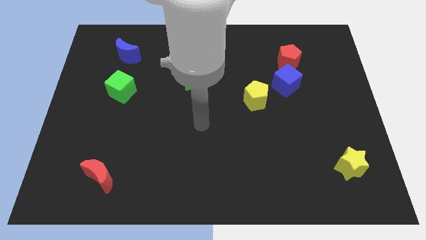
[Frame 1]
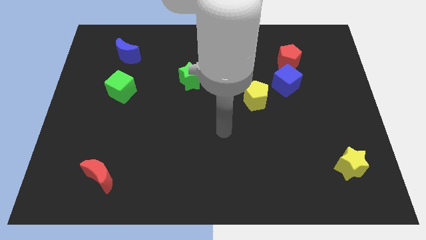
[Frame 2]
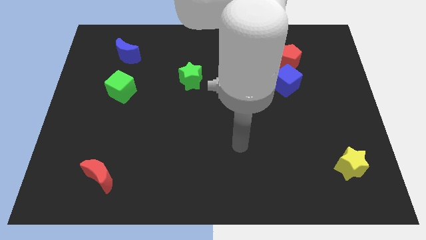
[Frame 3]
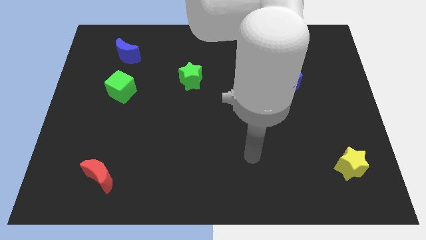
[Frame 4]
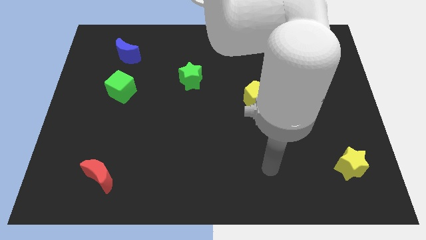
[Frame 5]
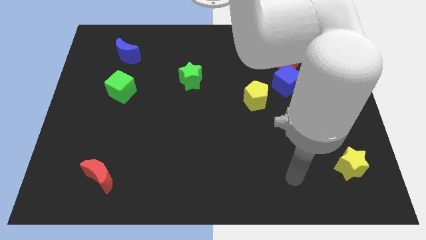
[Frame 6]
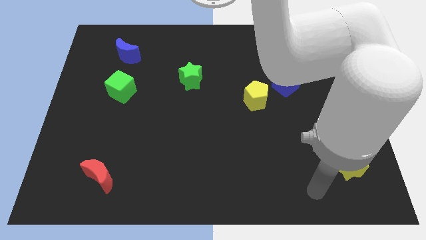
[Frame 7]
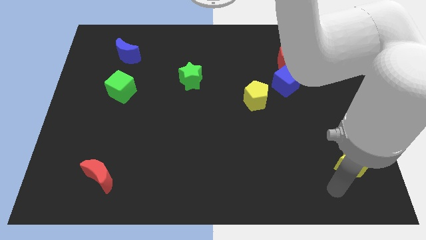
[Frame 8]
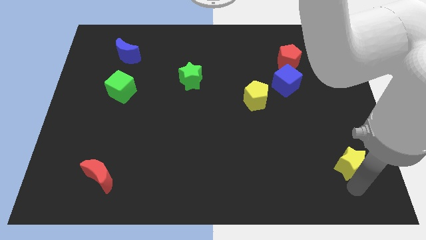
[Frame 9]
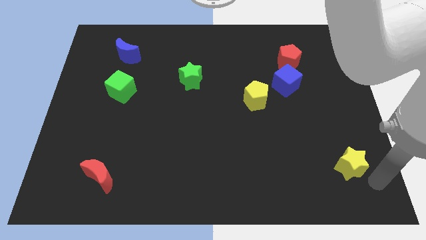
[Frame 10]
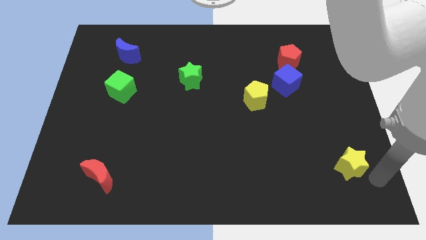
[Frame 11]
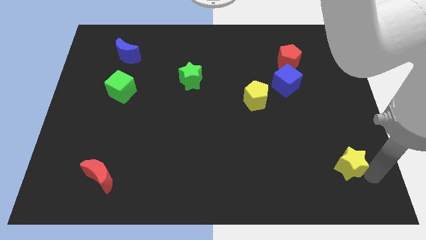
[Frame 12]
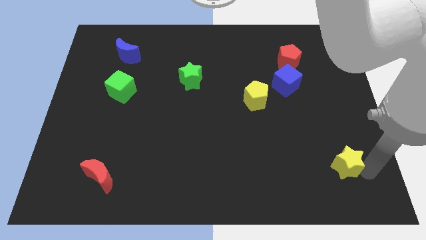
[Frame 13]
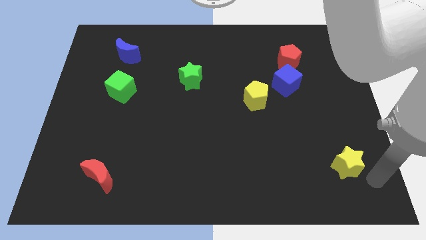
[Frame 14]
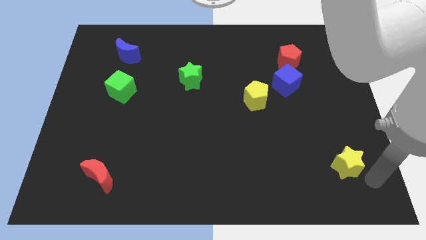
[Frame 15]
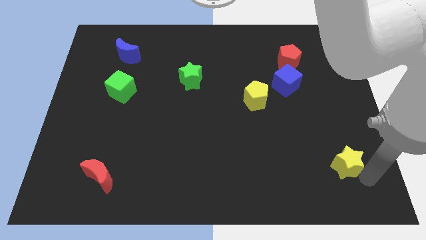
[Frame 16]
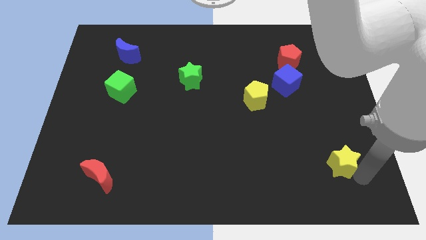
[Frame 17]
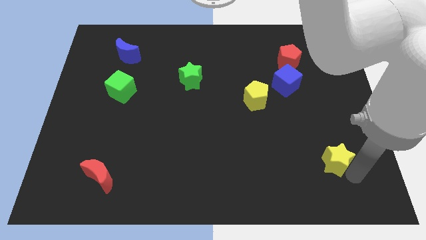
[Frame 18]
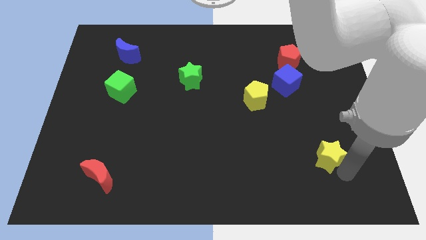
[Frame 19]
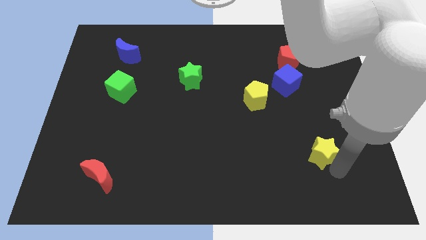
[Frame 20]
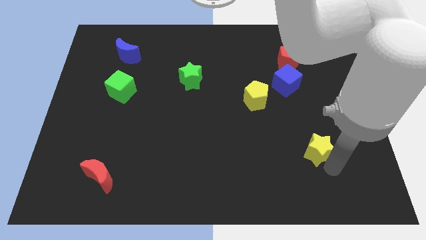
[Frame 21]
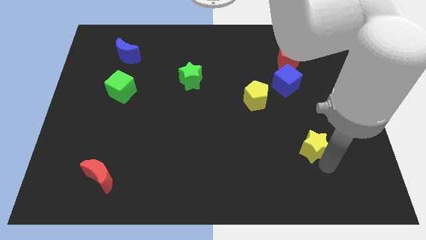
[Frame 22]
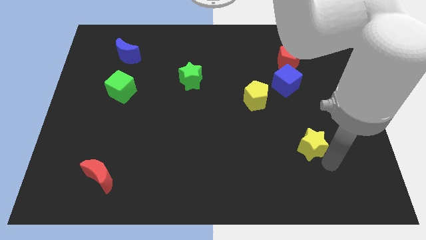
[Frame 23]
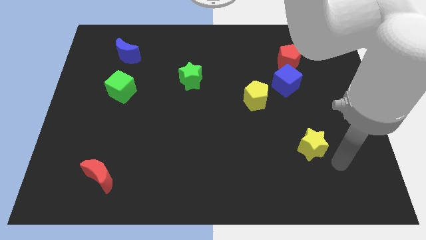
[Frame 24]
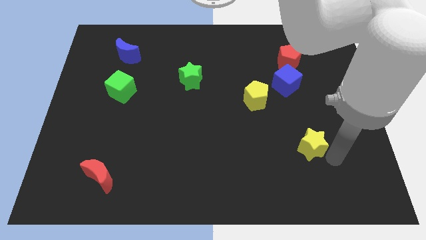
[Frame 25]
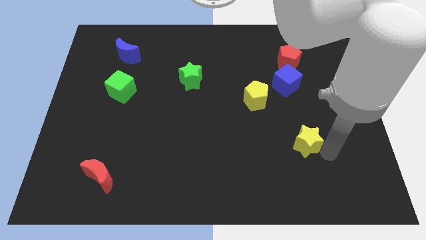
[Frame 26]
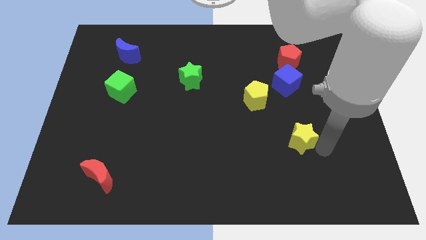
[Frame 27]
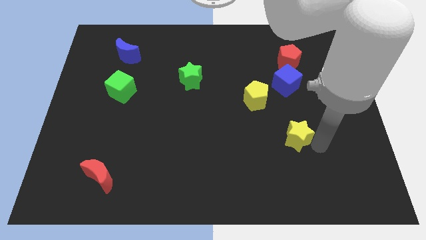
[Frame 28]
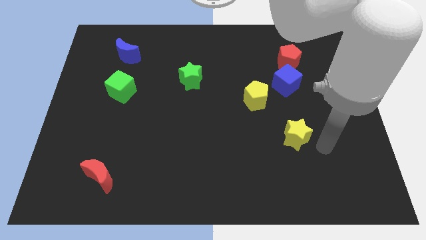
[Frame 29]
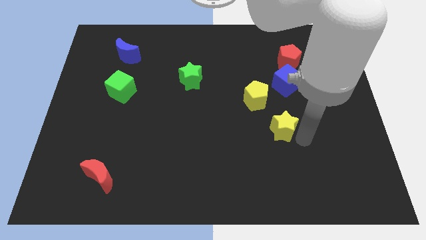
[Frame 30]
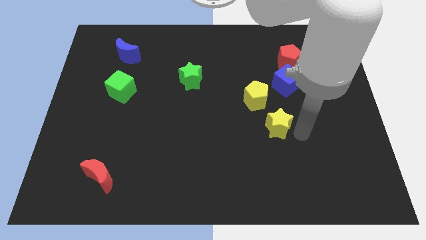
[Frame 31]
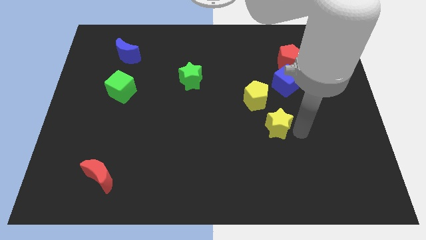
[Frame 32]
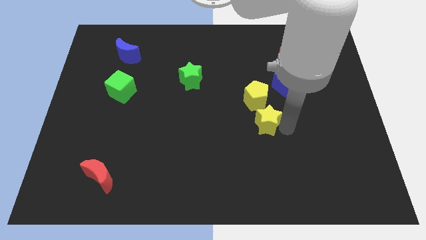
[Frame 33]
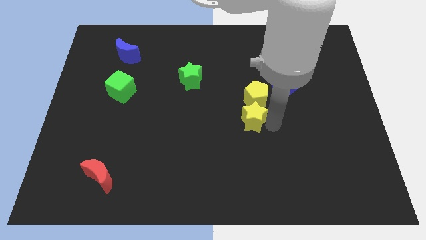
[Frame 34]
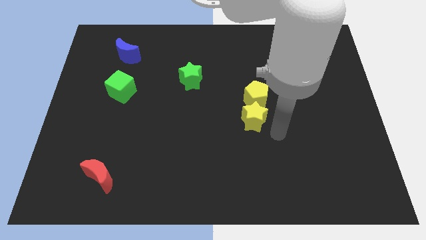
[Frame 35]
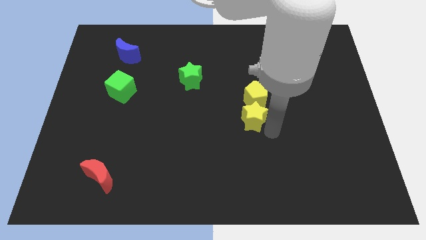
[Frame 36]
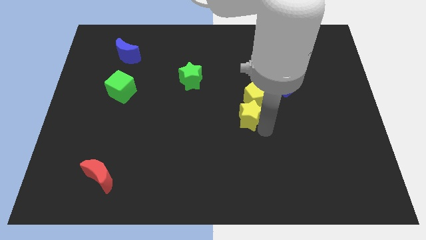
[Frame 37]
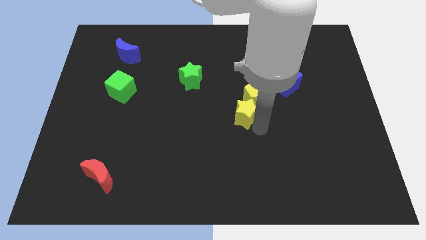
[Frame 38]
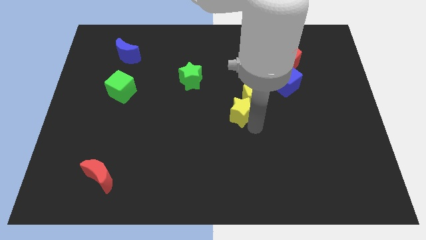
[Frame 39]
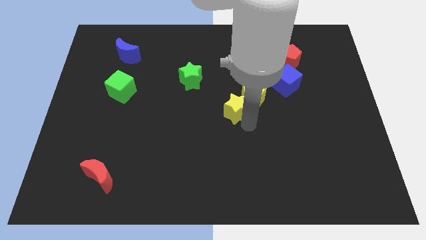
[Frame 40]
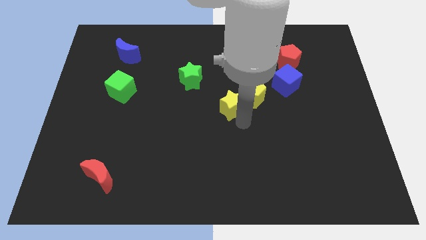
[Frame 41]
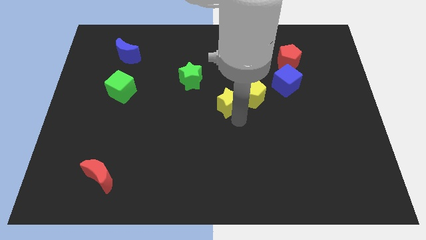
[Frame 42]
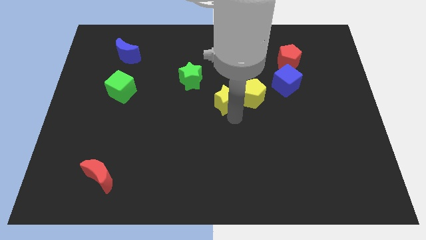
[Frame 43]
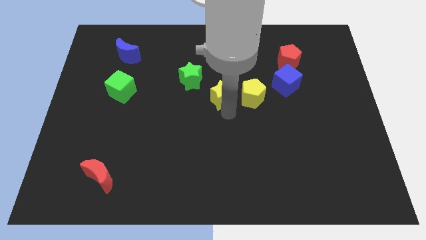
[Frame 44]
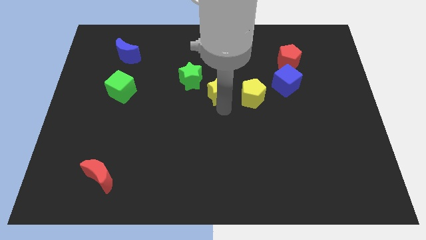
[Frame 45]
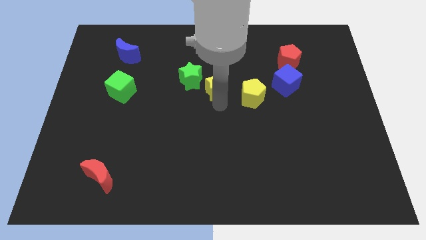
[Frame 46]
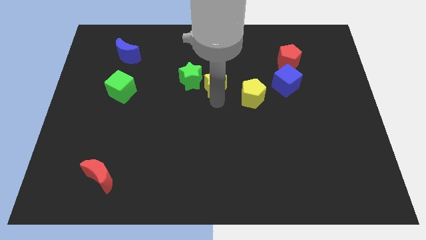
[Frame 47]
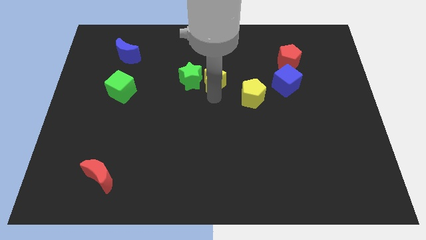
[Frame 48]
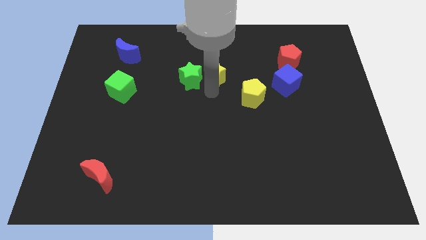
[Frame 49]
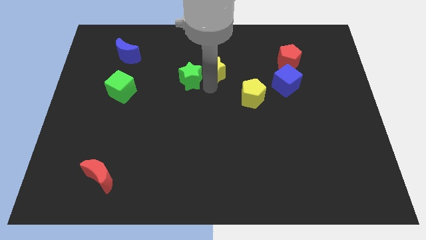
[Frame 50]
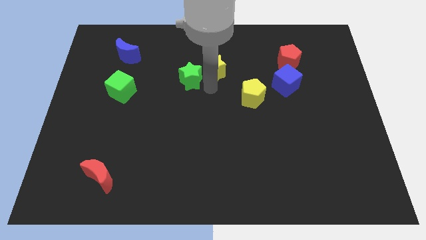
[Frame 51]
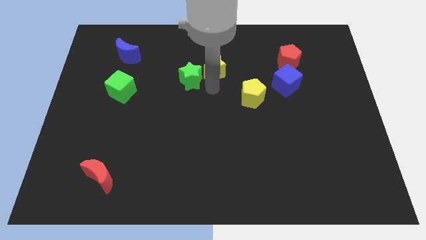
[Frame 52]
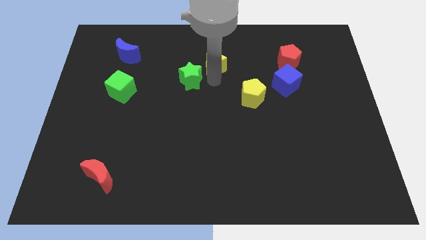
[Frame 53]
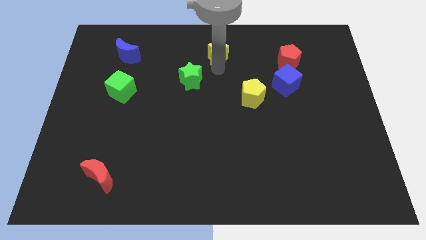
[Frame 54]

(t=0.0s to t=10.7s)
slide the yellow star to the top

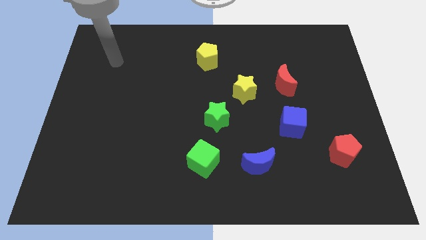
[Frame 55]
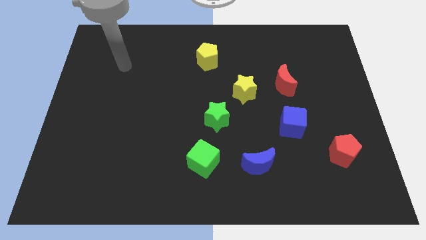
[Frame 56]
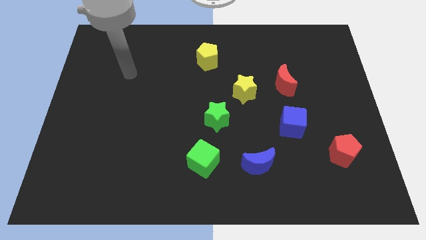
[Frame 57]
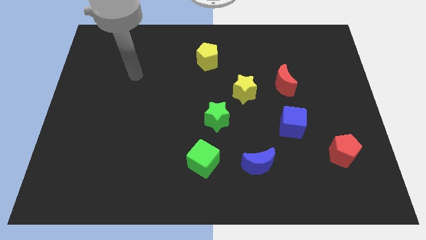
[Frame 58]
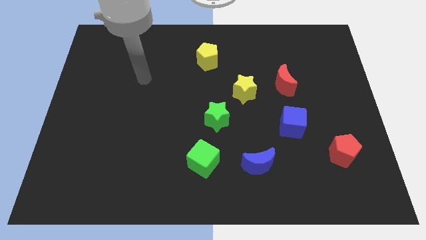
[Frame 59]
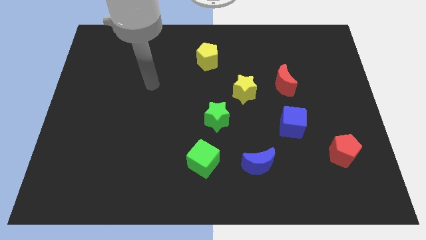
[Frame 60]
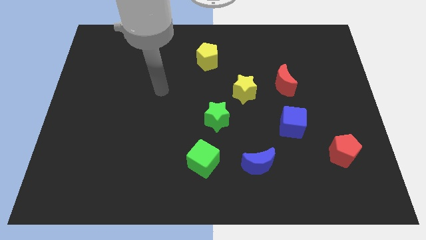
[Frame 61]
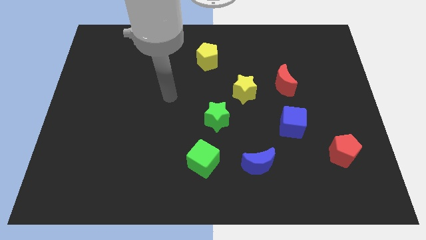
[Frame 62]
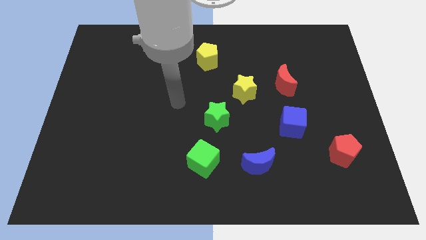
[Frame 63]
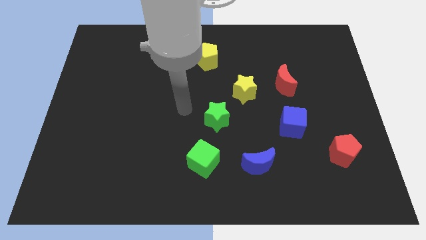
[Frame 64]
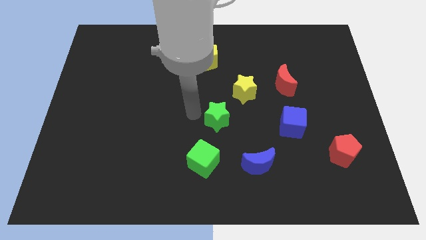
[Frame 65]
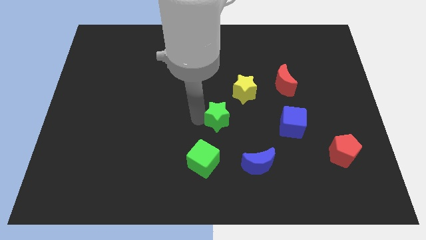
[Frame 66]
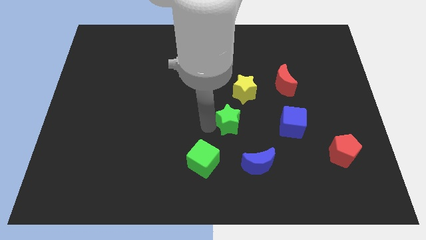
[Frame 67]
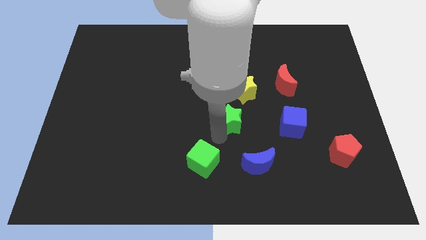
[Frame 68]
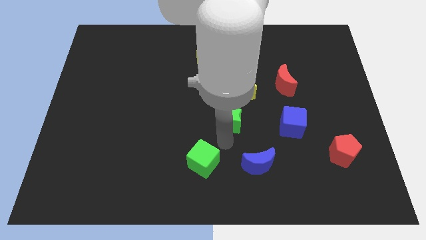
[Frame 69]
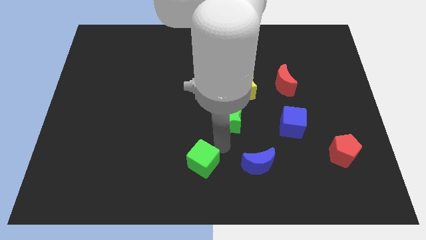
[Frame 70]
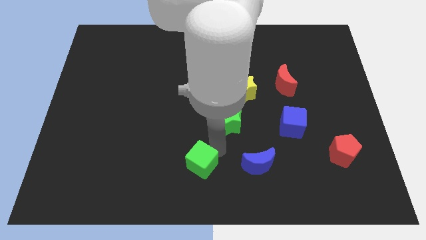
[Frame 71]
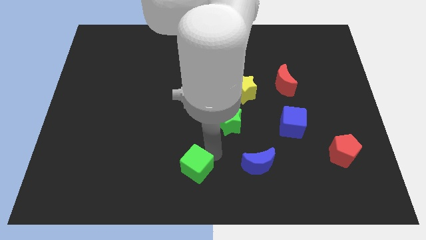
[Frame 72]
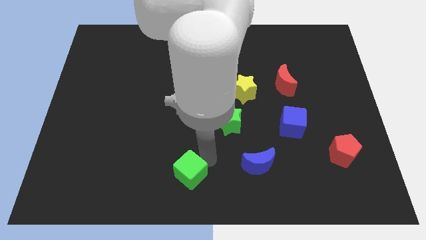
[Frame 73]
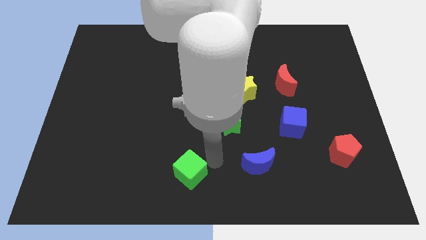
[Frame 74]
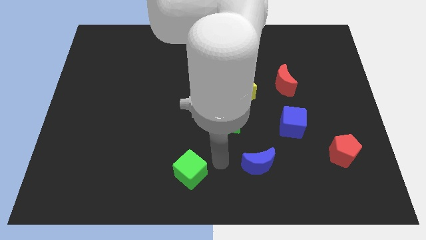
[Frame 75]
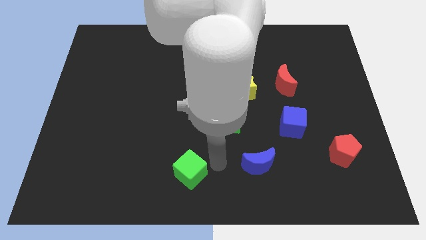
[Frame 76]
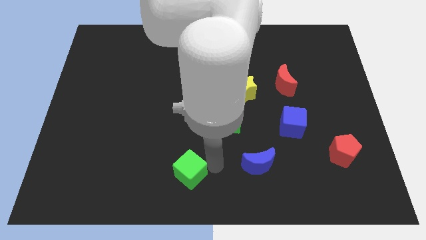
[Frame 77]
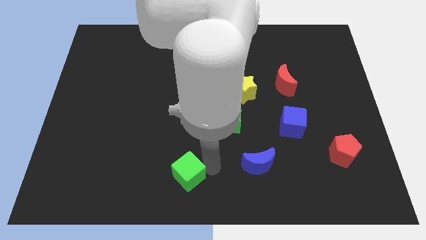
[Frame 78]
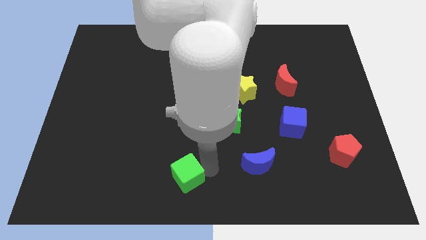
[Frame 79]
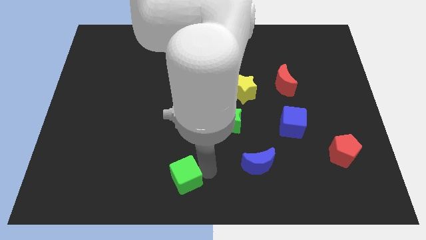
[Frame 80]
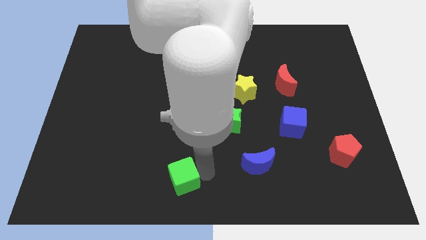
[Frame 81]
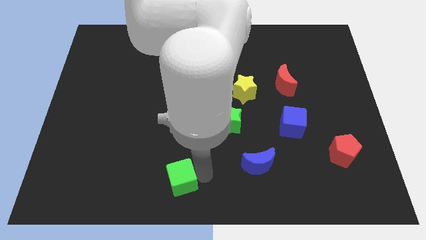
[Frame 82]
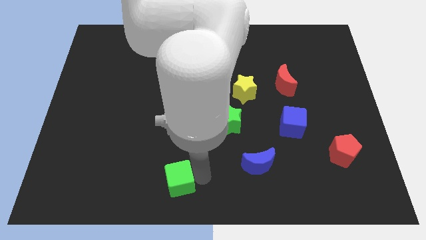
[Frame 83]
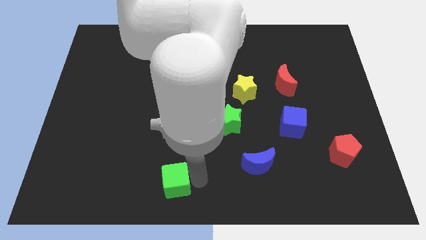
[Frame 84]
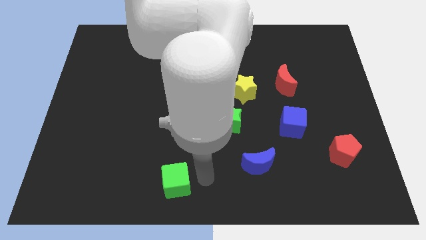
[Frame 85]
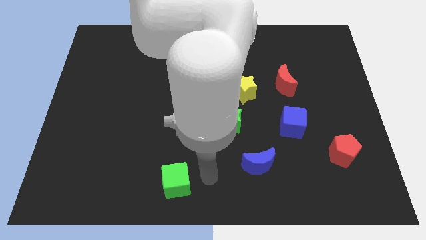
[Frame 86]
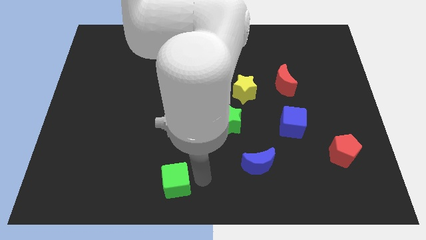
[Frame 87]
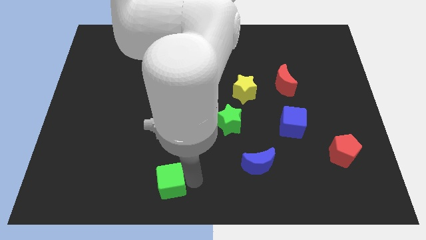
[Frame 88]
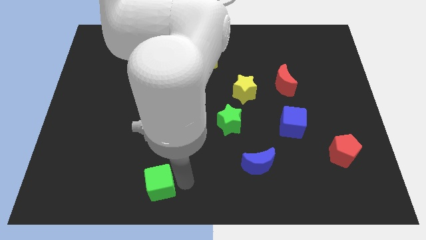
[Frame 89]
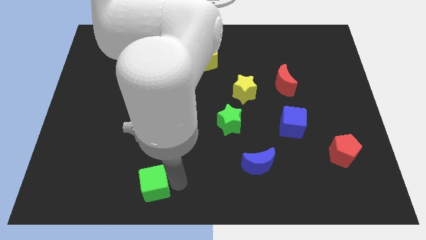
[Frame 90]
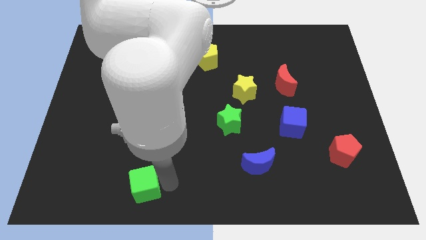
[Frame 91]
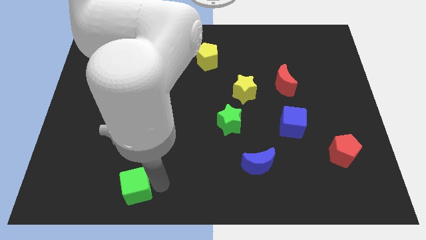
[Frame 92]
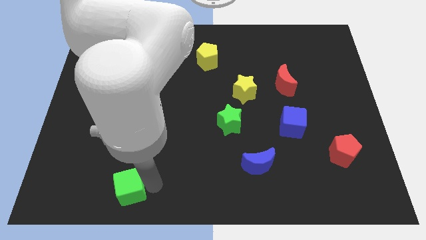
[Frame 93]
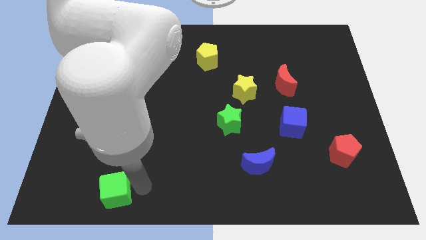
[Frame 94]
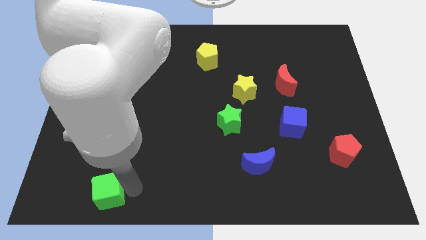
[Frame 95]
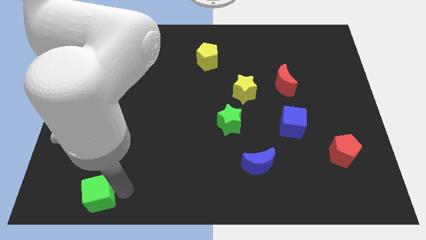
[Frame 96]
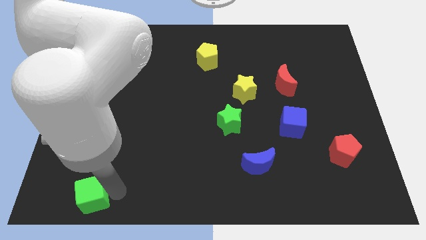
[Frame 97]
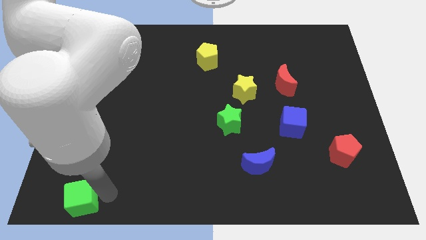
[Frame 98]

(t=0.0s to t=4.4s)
put the green cube to the bottom left of the board
